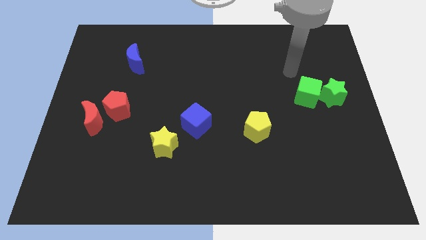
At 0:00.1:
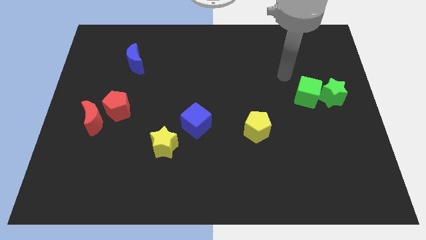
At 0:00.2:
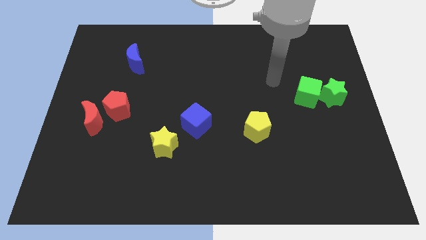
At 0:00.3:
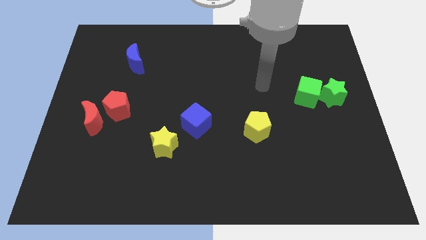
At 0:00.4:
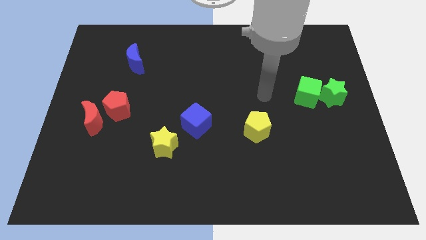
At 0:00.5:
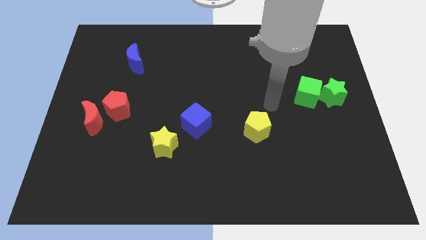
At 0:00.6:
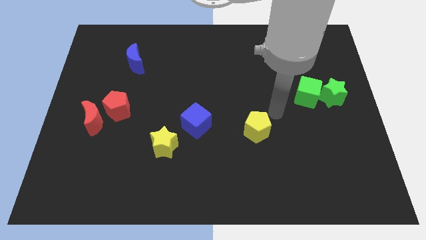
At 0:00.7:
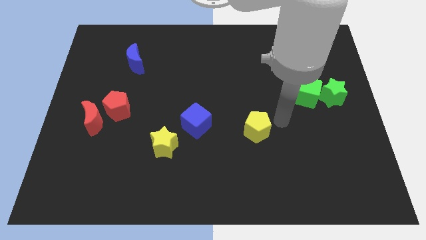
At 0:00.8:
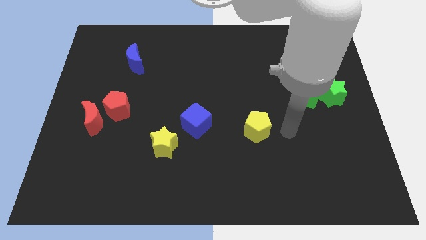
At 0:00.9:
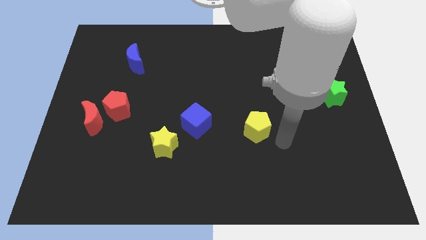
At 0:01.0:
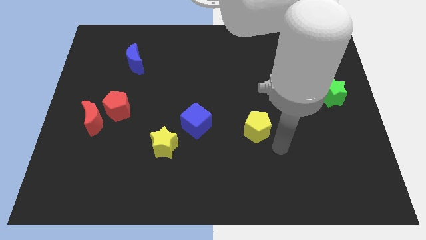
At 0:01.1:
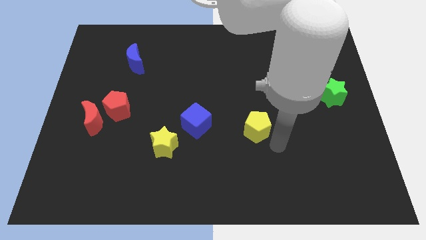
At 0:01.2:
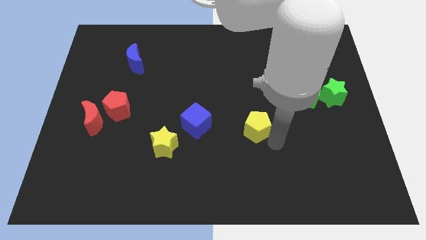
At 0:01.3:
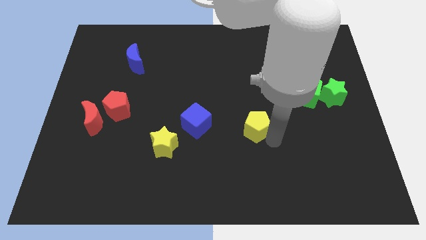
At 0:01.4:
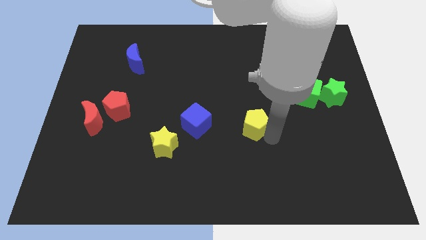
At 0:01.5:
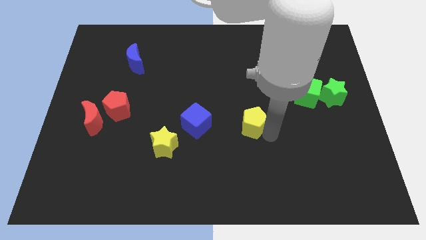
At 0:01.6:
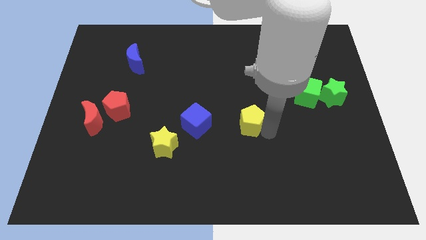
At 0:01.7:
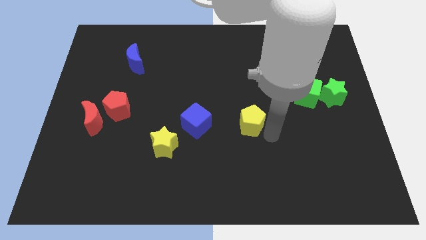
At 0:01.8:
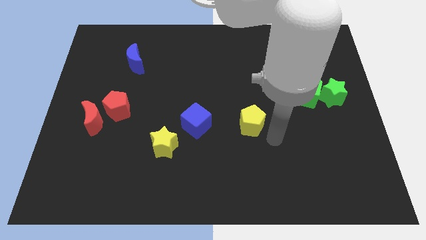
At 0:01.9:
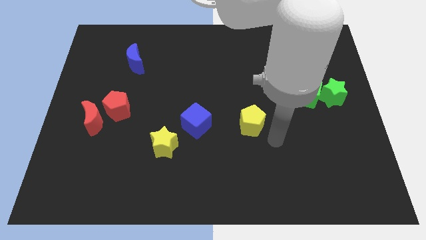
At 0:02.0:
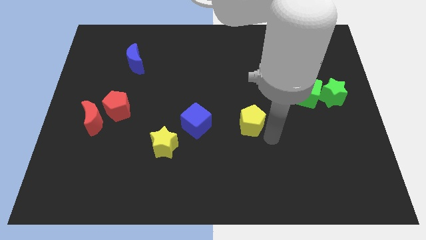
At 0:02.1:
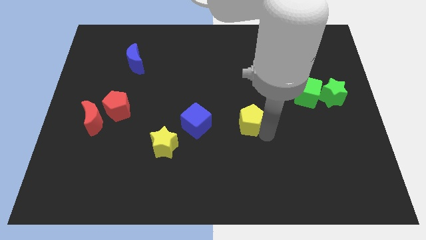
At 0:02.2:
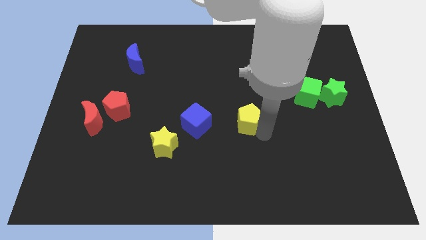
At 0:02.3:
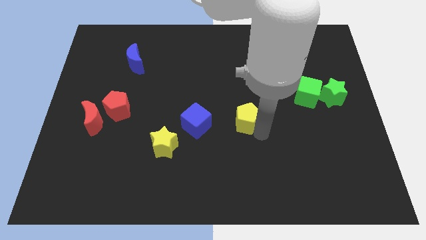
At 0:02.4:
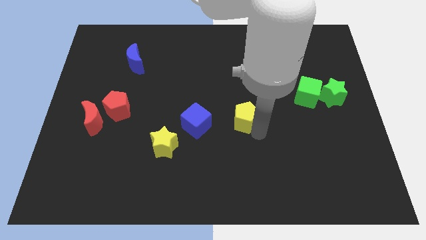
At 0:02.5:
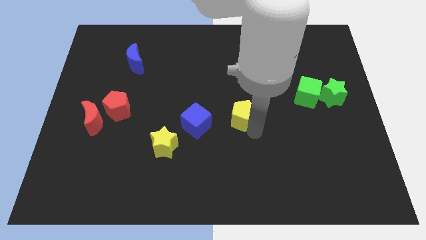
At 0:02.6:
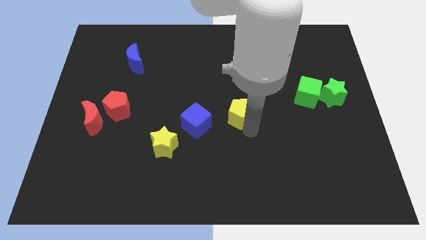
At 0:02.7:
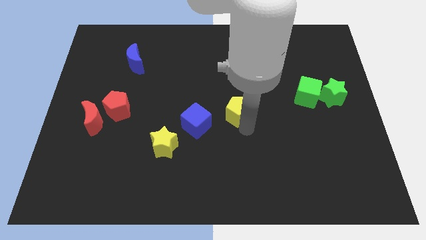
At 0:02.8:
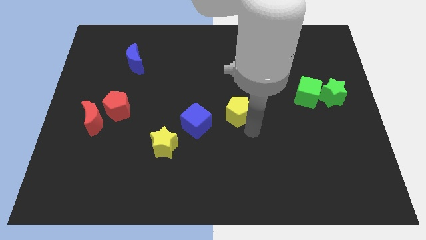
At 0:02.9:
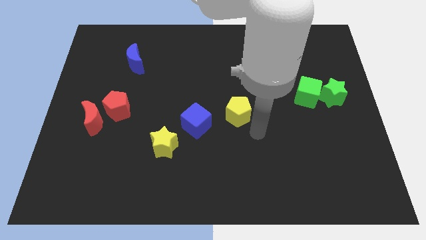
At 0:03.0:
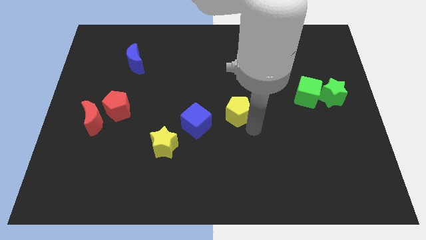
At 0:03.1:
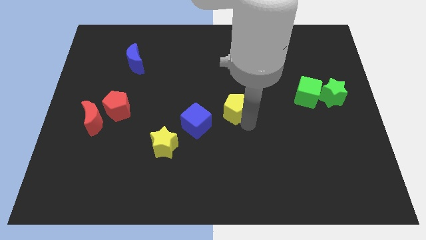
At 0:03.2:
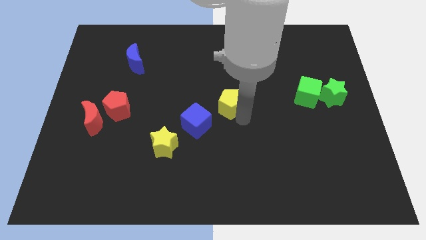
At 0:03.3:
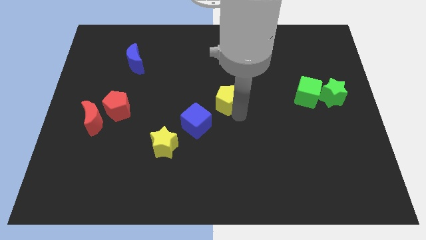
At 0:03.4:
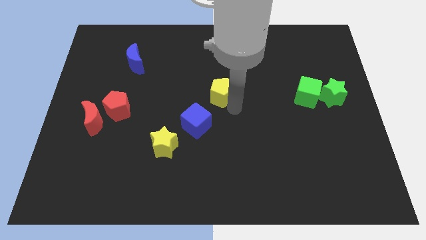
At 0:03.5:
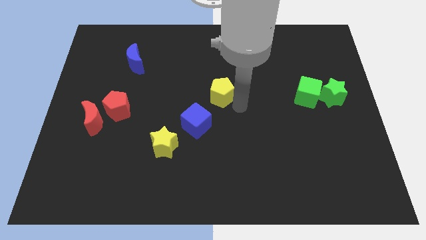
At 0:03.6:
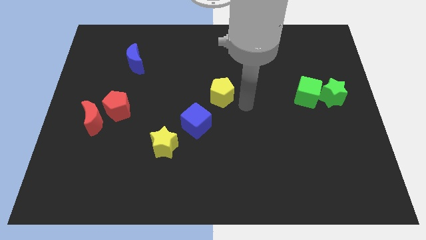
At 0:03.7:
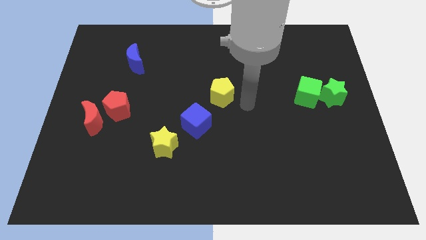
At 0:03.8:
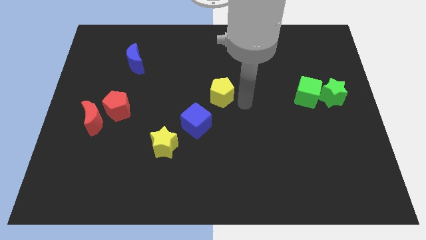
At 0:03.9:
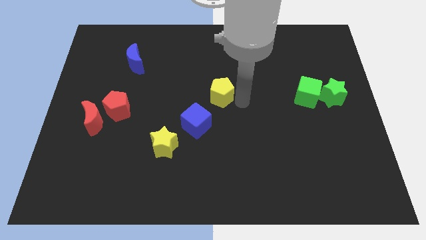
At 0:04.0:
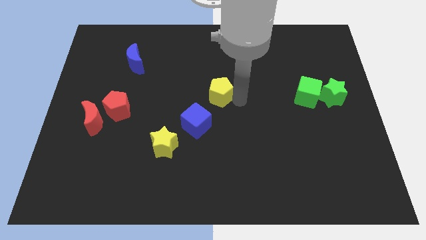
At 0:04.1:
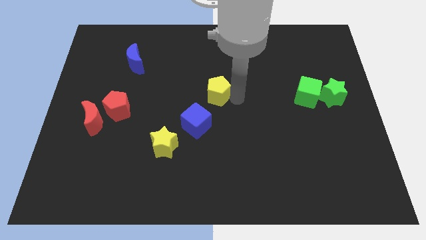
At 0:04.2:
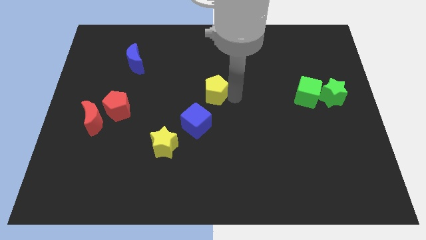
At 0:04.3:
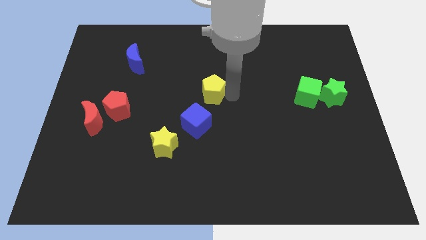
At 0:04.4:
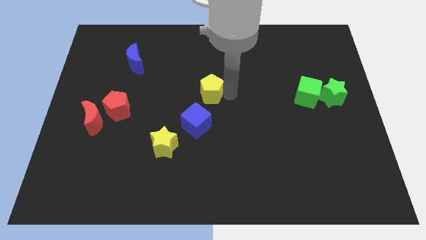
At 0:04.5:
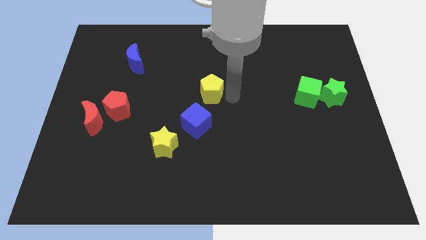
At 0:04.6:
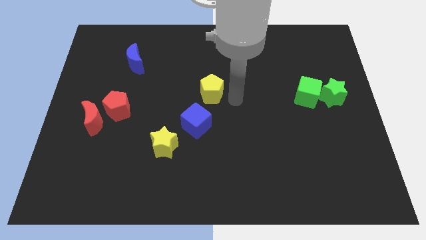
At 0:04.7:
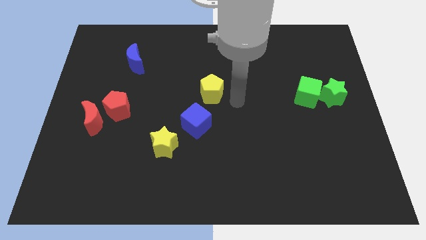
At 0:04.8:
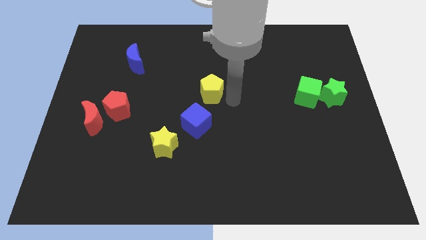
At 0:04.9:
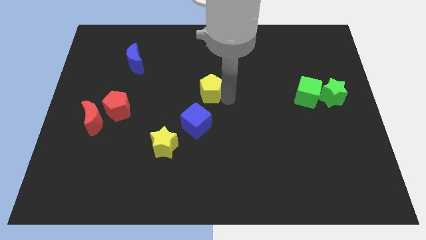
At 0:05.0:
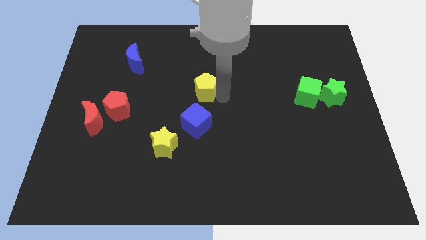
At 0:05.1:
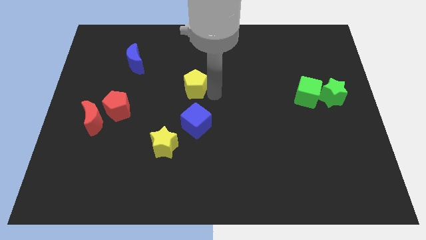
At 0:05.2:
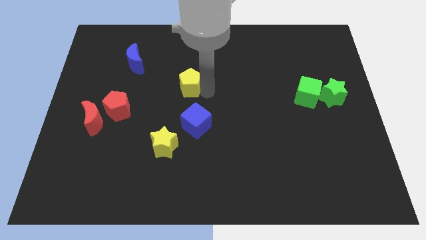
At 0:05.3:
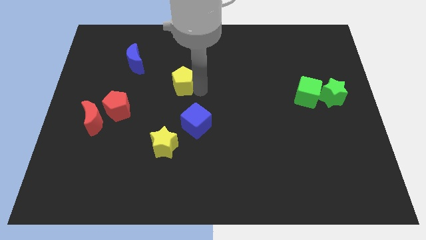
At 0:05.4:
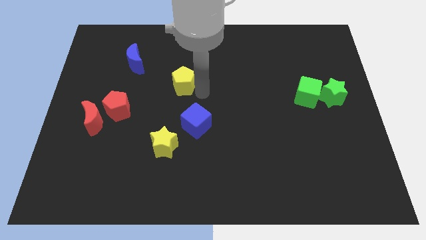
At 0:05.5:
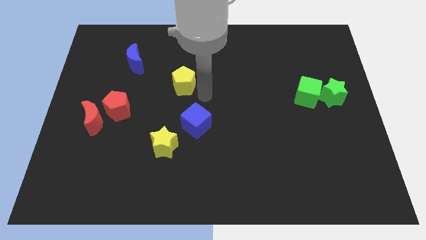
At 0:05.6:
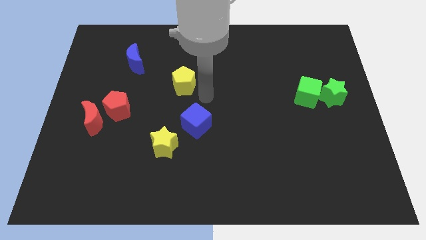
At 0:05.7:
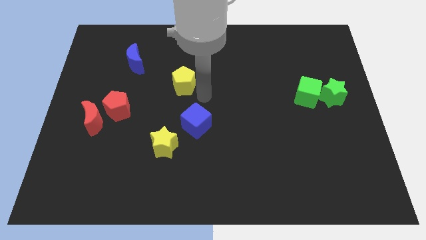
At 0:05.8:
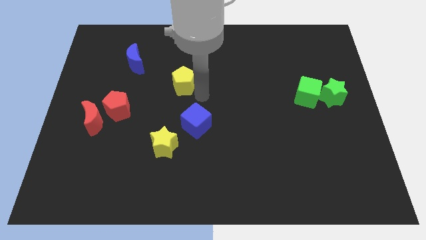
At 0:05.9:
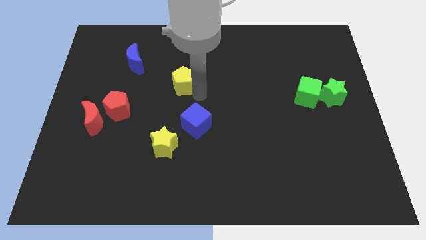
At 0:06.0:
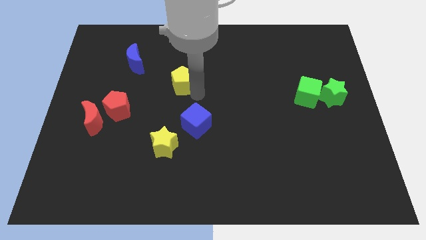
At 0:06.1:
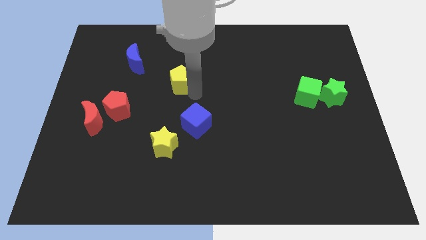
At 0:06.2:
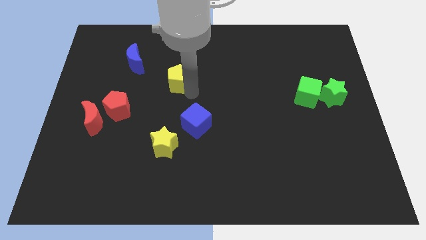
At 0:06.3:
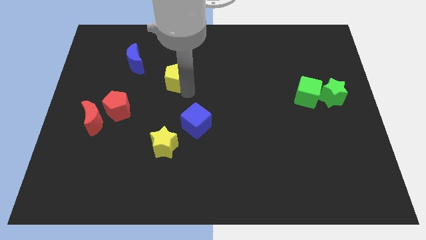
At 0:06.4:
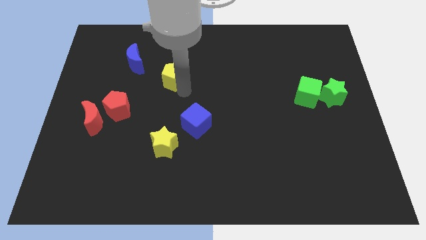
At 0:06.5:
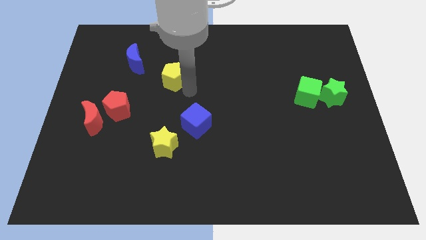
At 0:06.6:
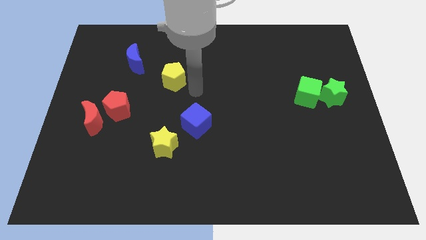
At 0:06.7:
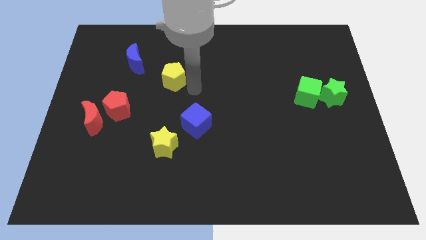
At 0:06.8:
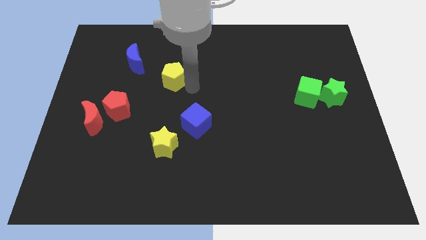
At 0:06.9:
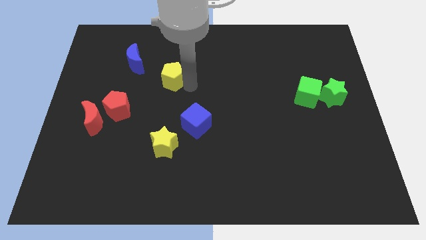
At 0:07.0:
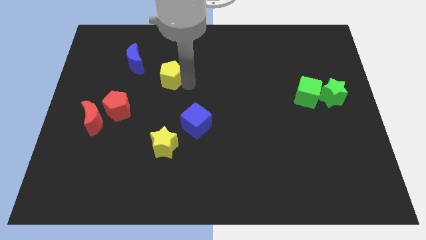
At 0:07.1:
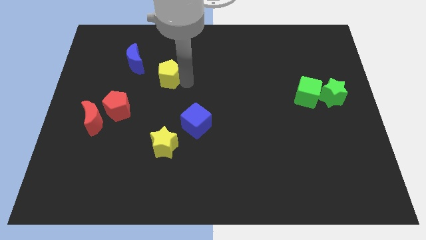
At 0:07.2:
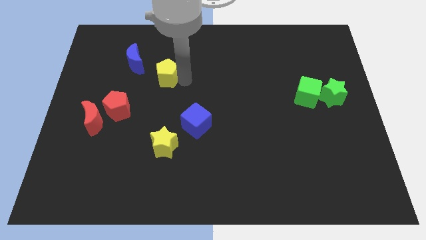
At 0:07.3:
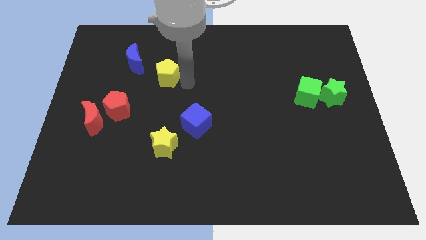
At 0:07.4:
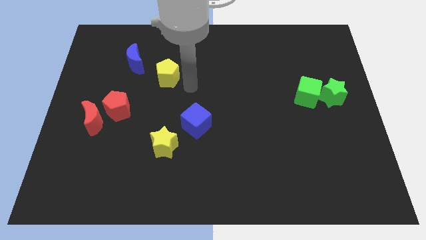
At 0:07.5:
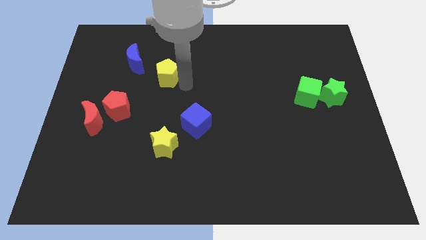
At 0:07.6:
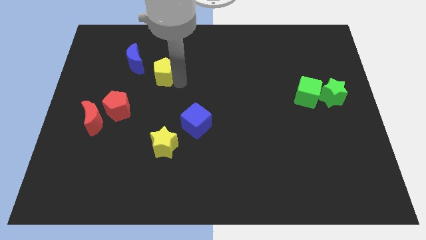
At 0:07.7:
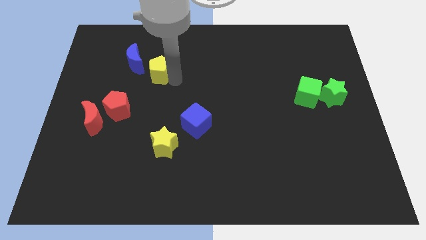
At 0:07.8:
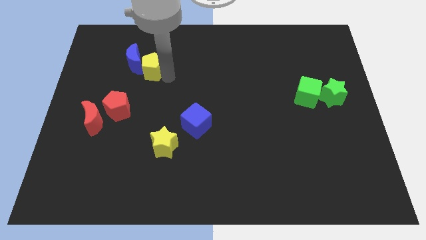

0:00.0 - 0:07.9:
slide the yellow pentagon towards the blue moon
